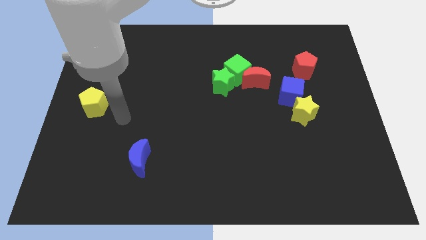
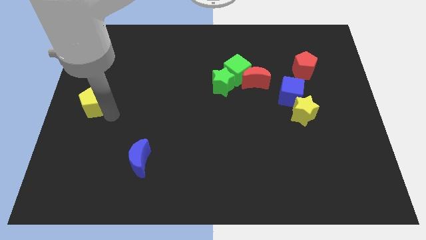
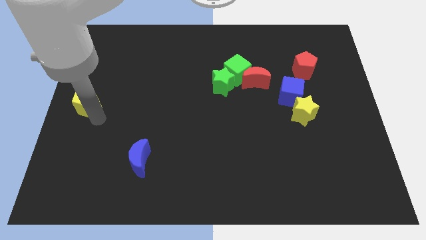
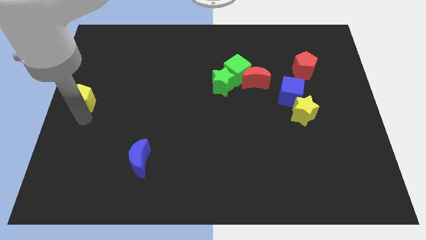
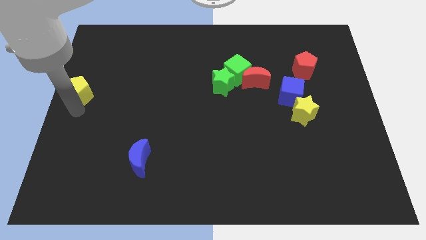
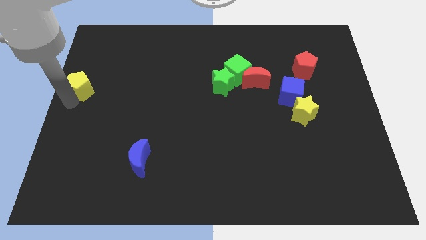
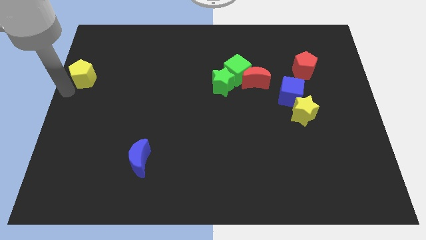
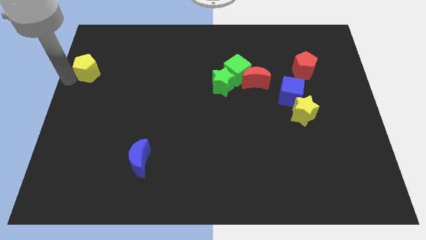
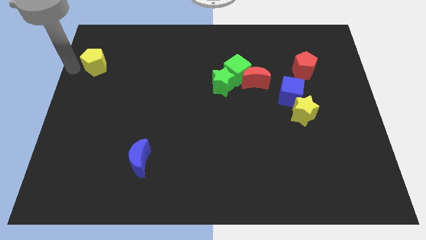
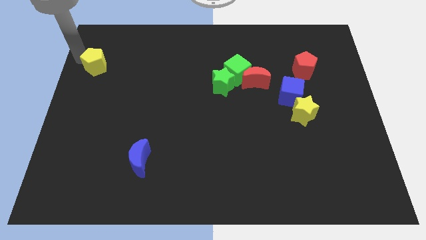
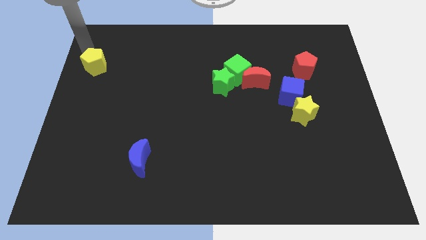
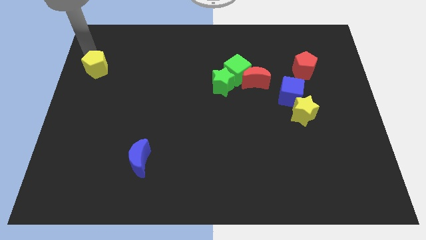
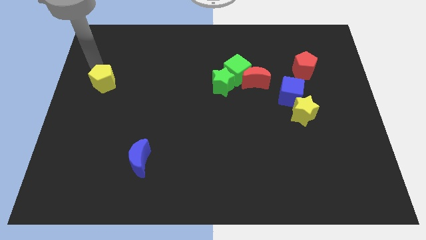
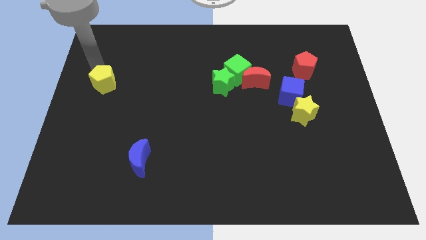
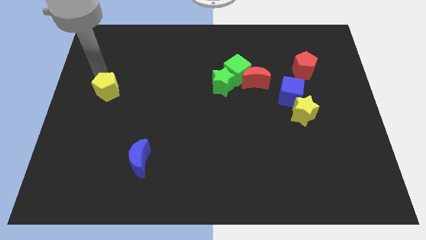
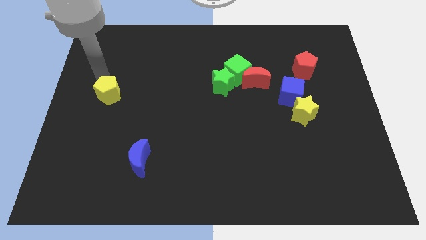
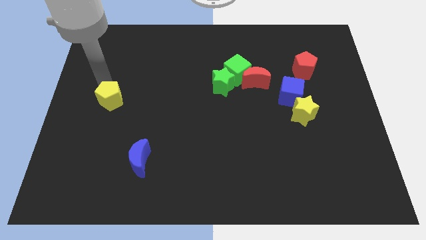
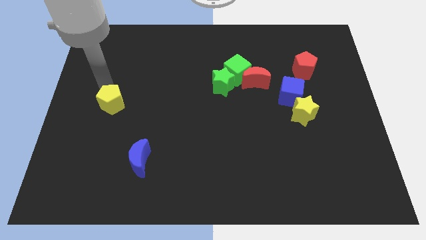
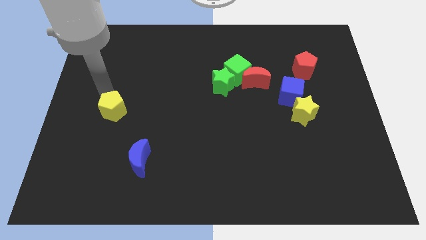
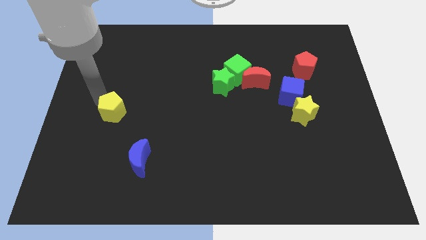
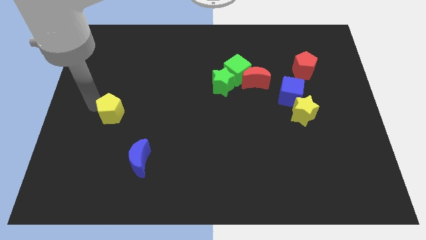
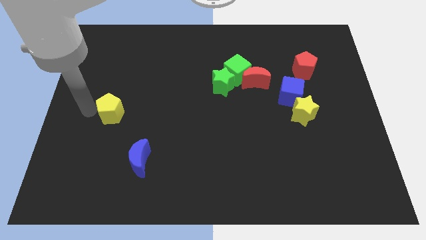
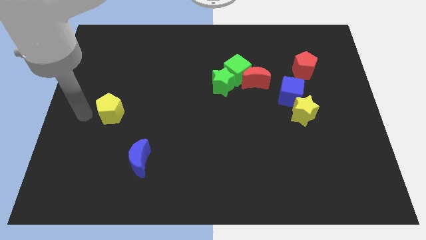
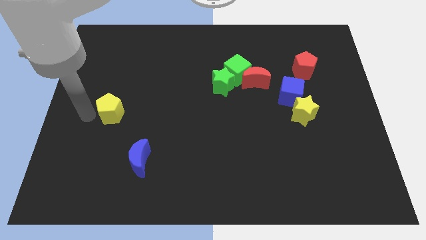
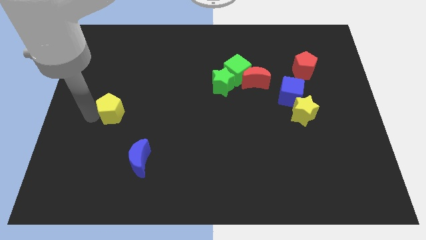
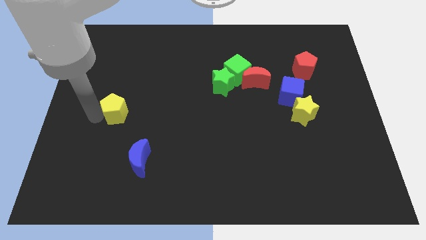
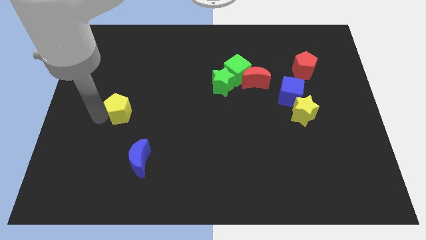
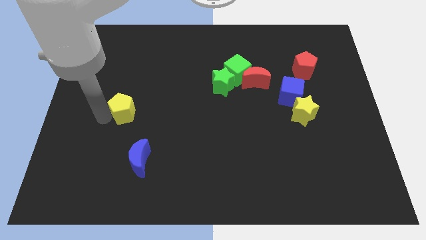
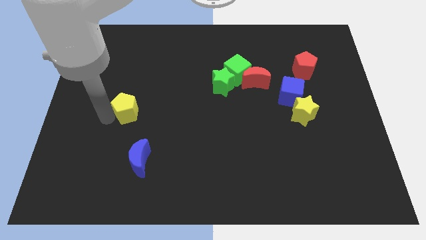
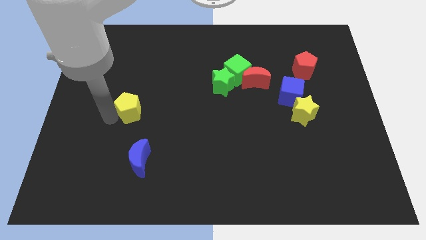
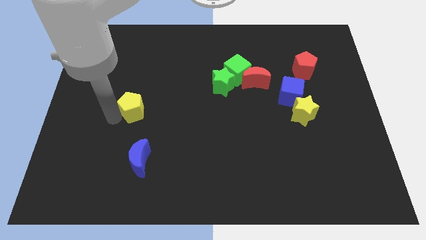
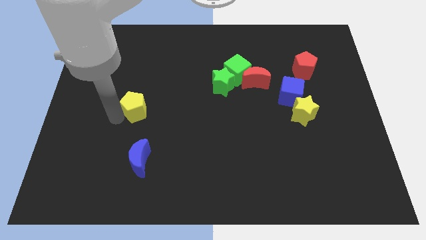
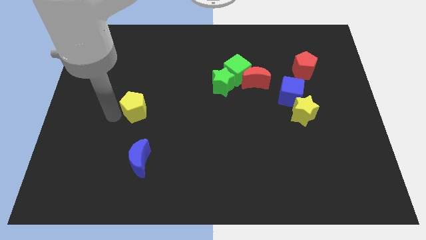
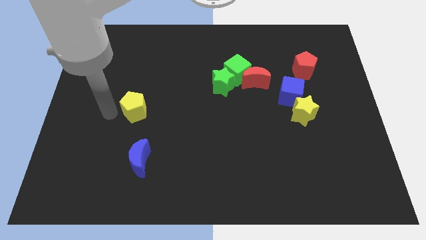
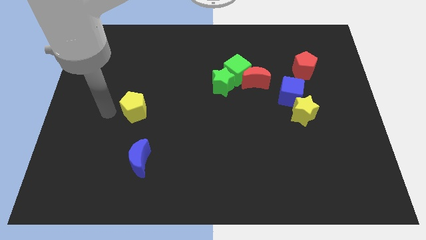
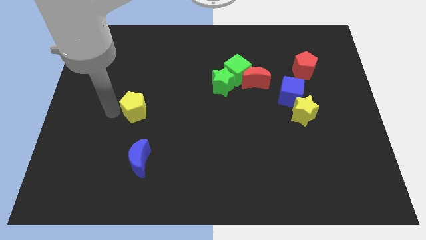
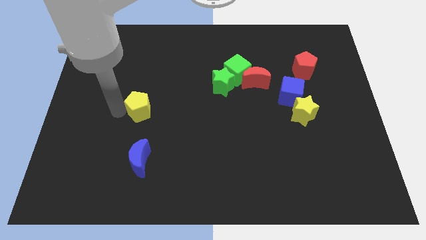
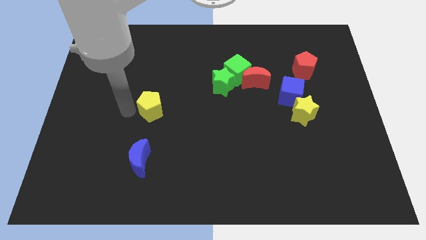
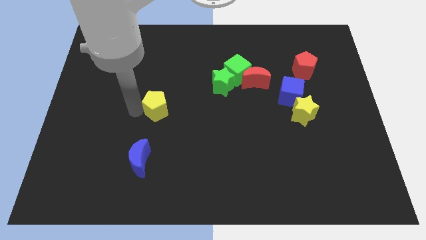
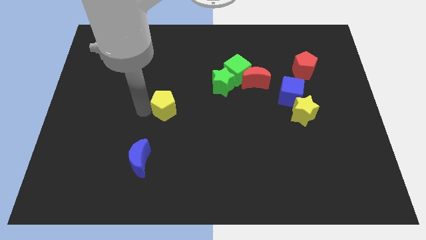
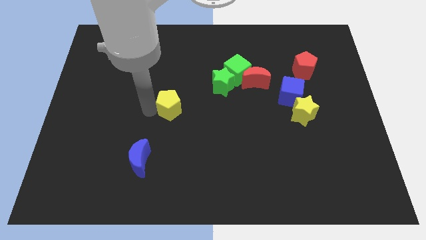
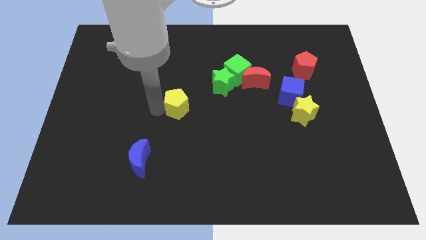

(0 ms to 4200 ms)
move the yellow pentagon to the right

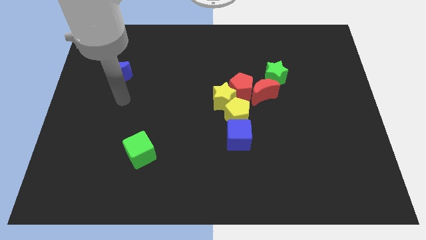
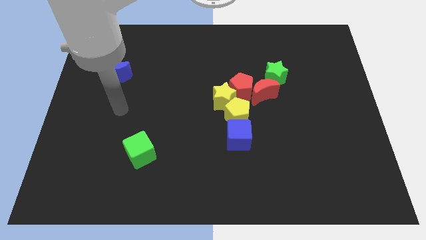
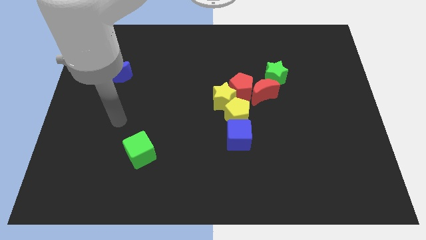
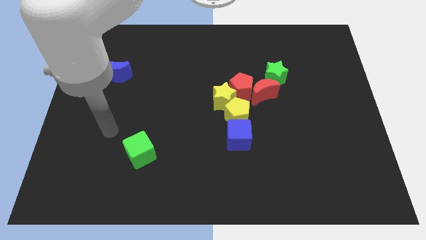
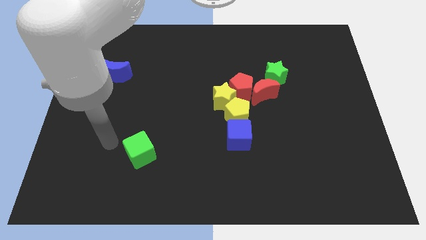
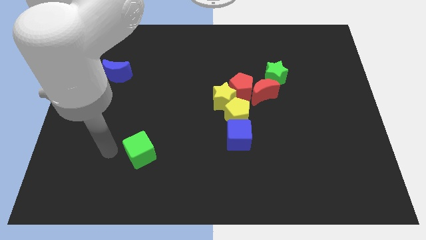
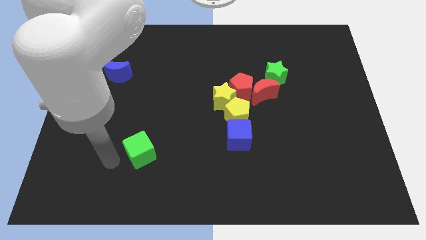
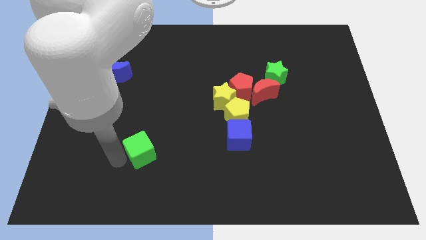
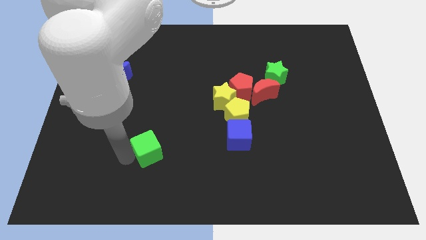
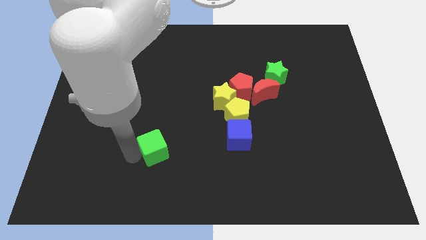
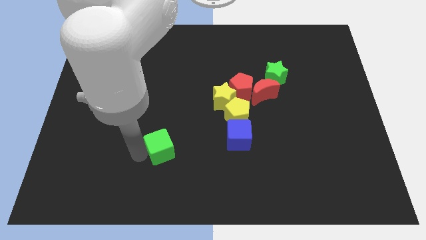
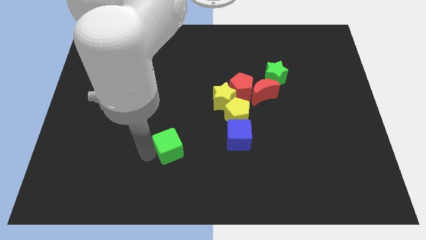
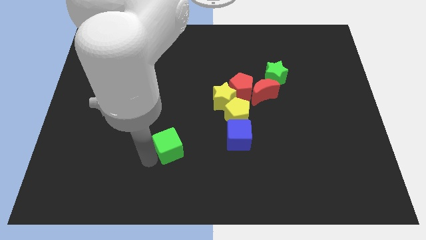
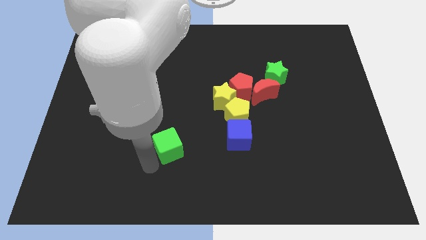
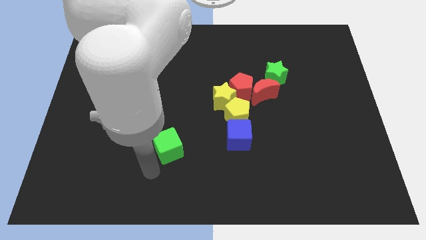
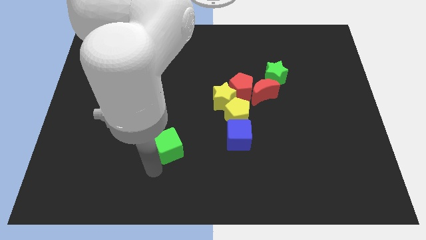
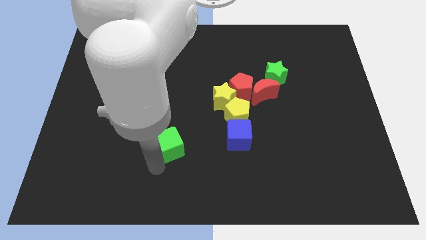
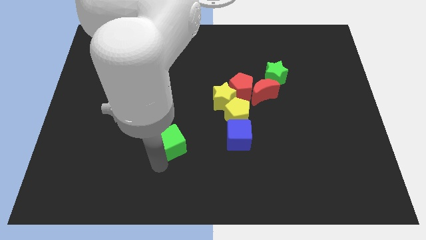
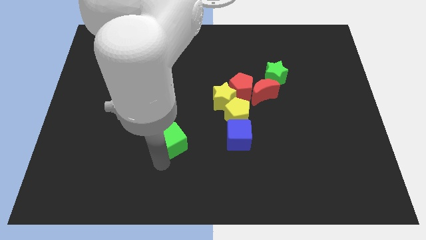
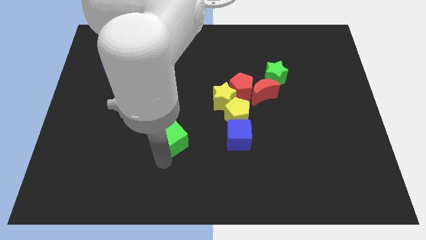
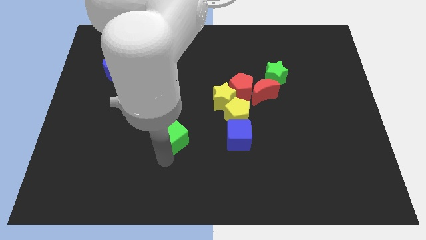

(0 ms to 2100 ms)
move the green cube up and right a bit

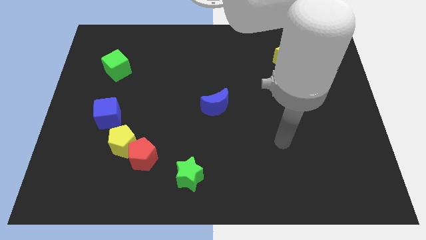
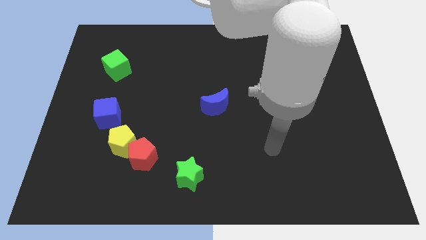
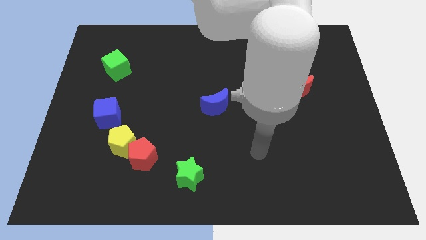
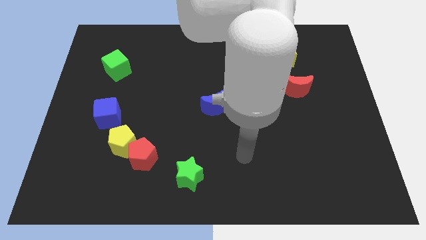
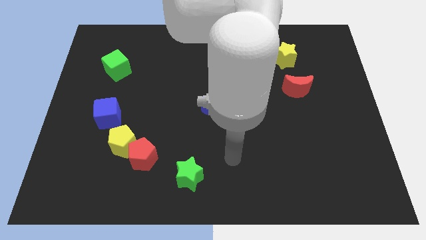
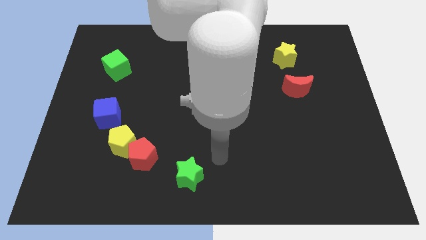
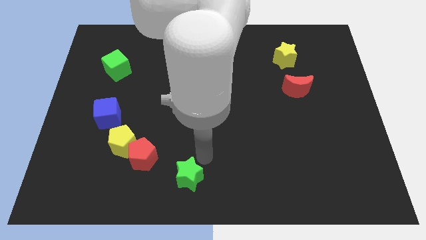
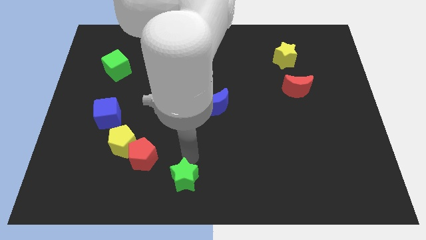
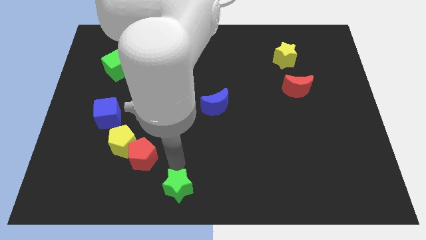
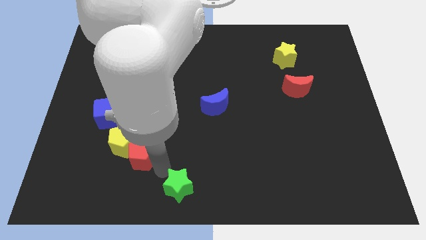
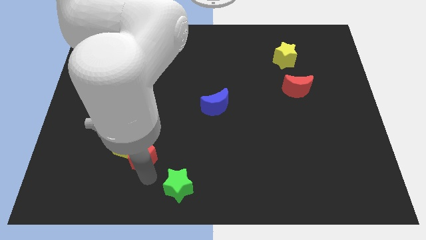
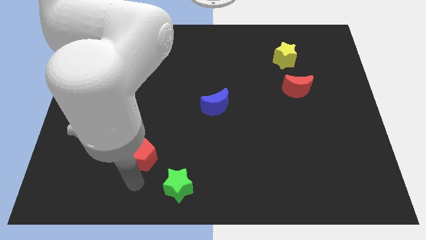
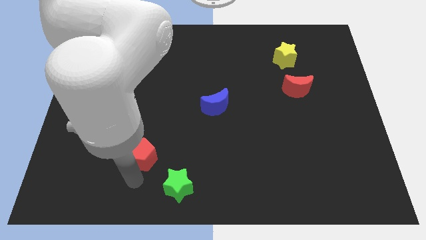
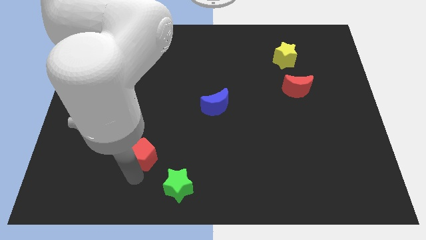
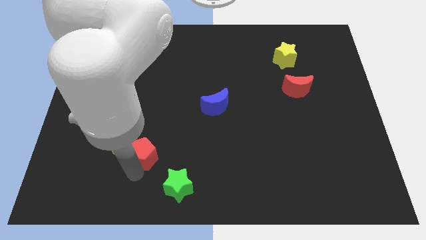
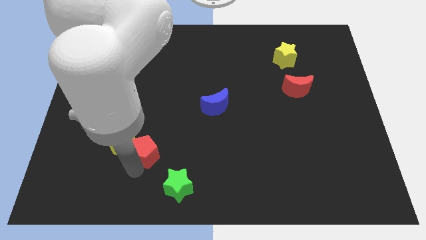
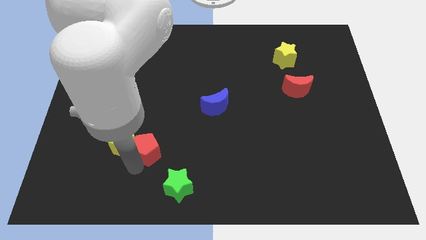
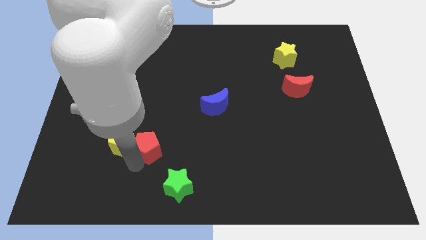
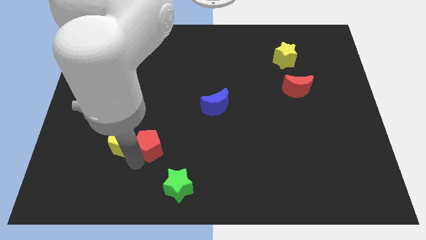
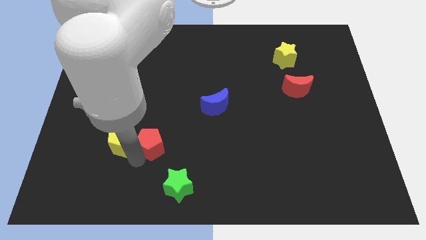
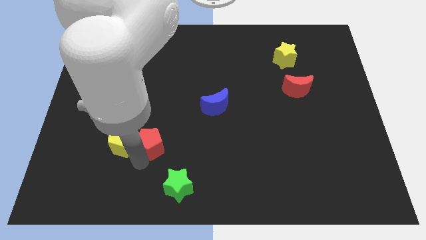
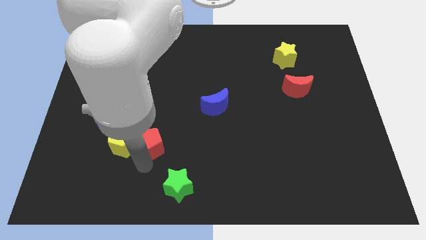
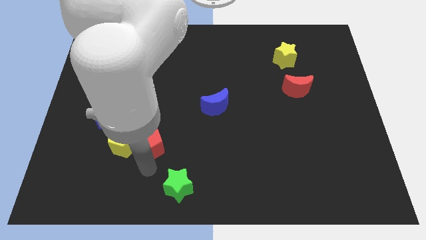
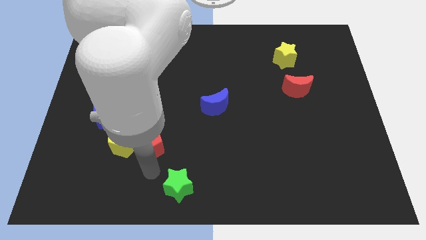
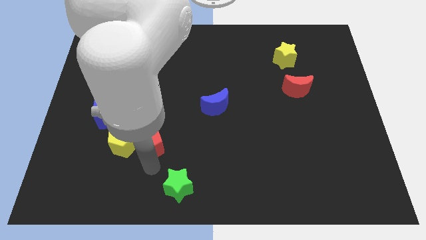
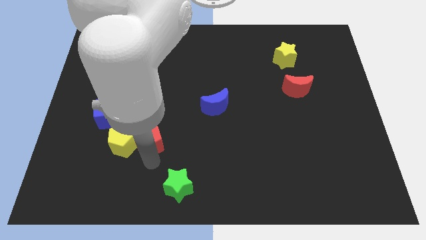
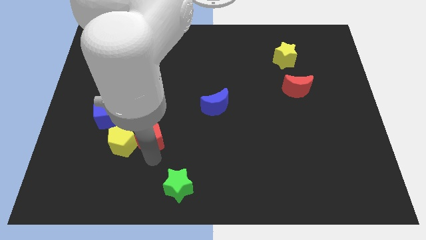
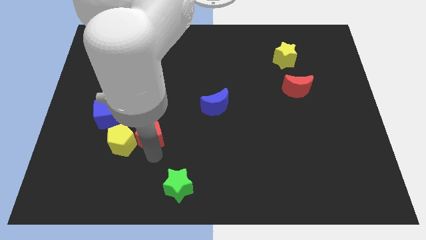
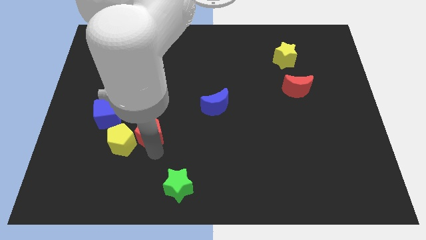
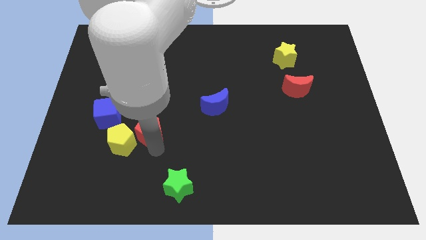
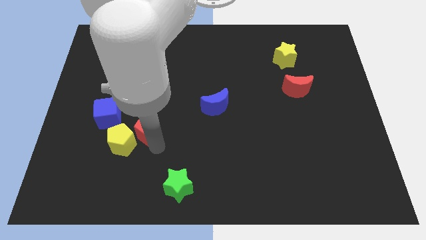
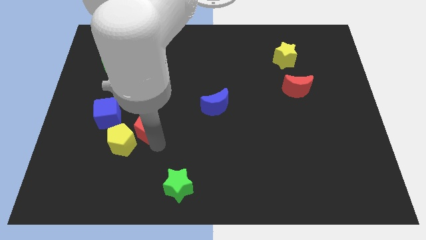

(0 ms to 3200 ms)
move the red pentagon slightly up
